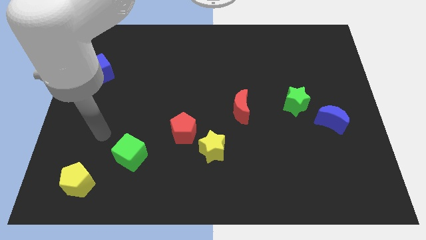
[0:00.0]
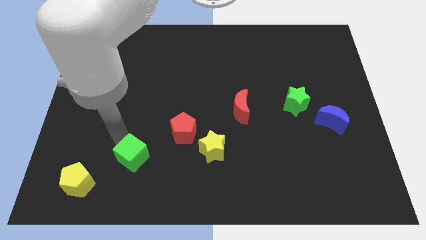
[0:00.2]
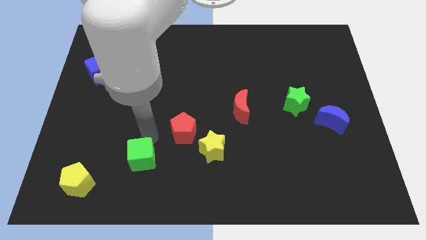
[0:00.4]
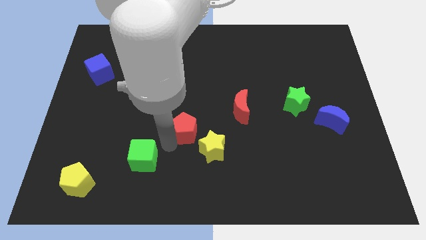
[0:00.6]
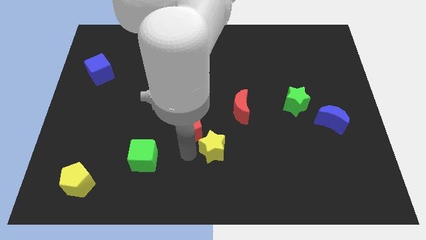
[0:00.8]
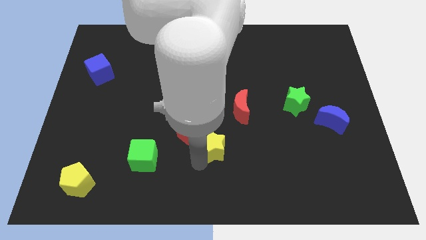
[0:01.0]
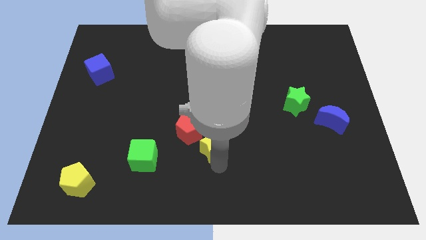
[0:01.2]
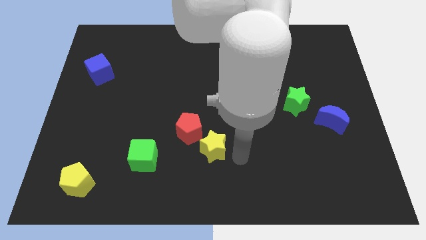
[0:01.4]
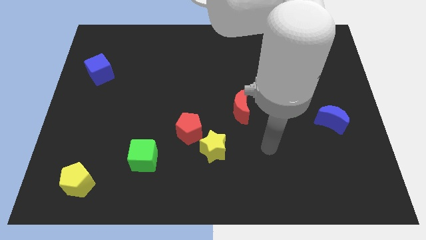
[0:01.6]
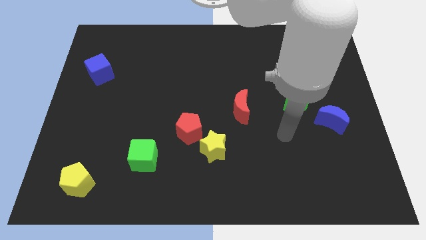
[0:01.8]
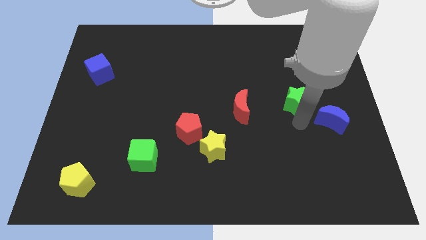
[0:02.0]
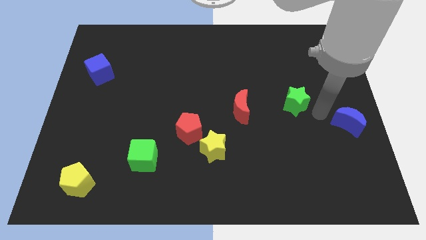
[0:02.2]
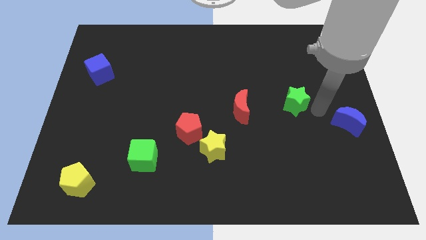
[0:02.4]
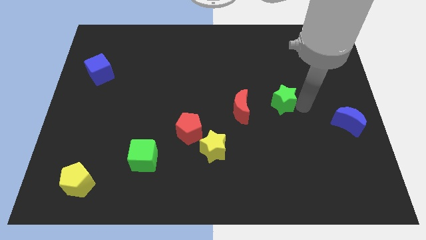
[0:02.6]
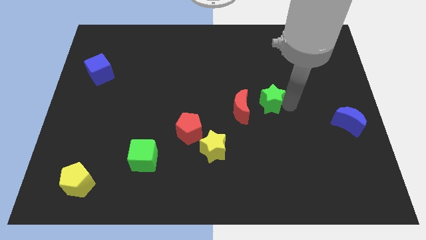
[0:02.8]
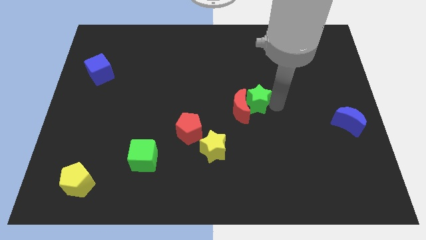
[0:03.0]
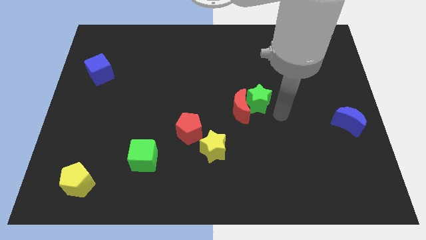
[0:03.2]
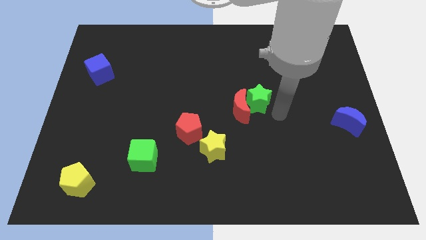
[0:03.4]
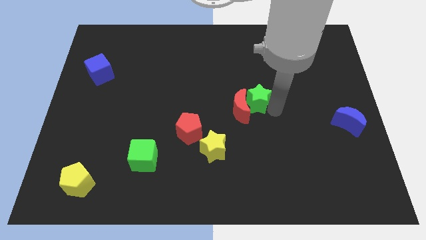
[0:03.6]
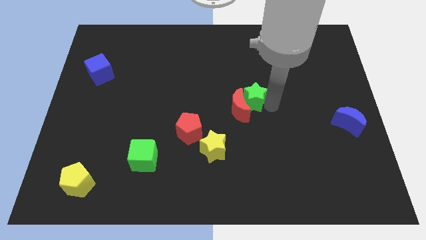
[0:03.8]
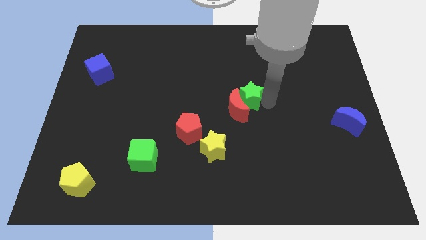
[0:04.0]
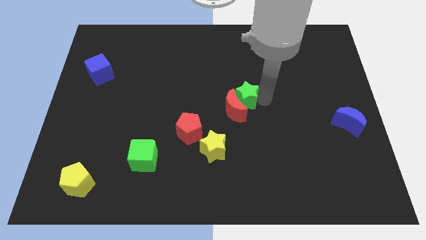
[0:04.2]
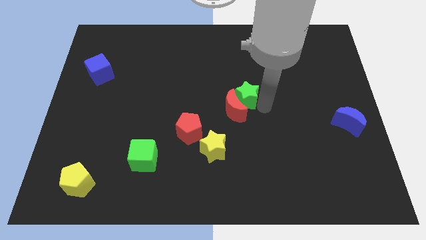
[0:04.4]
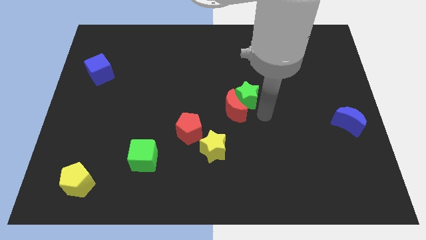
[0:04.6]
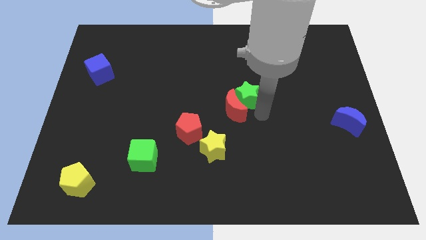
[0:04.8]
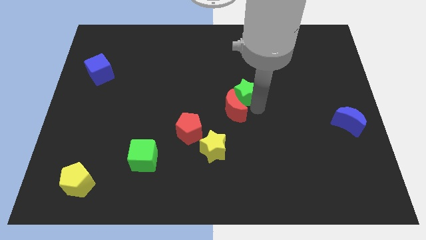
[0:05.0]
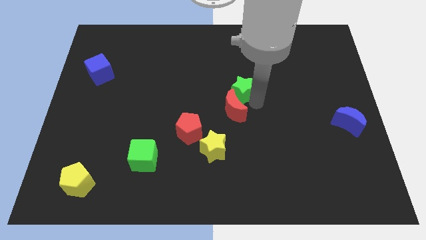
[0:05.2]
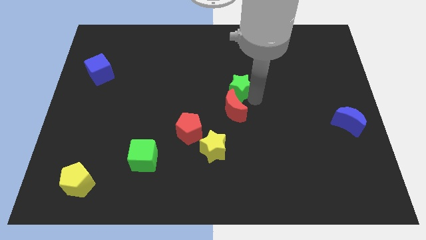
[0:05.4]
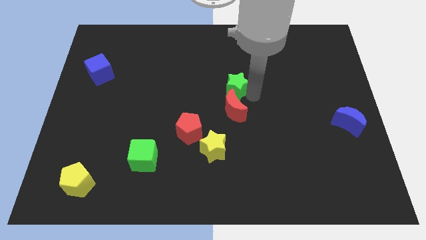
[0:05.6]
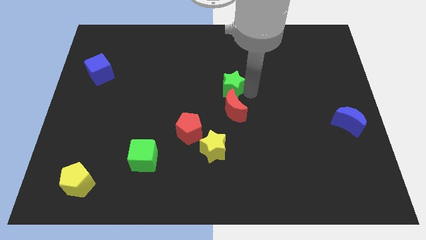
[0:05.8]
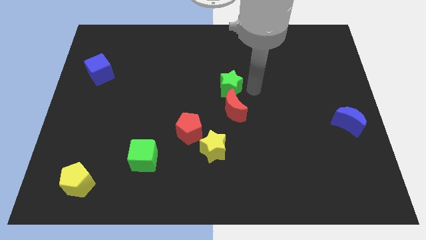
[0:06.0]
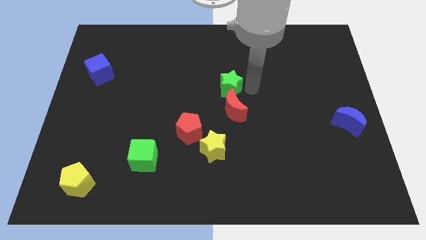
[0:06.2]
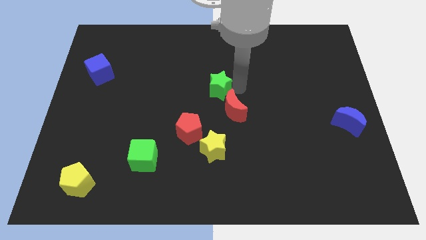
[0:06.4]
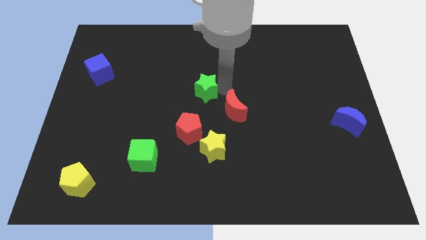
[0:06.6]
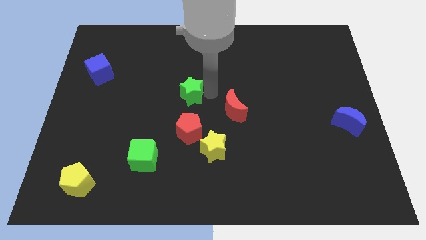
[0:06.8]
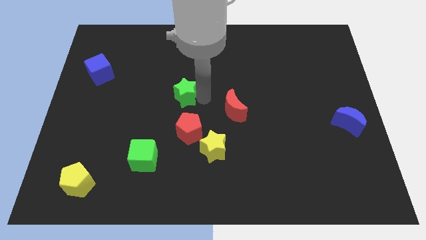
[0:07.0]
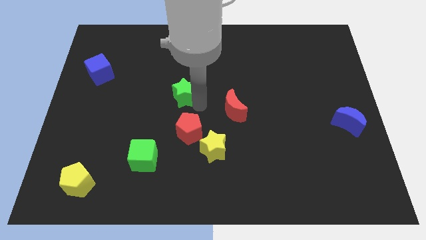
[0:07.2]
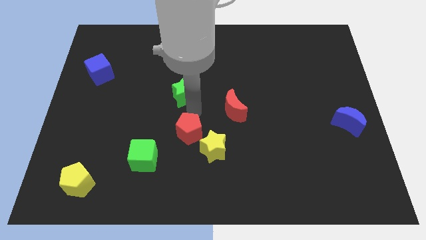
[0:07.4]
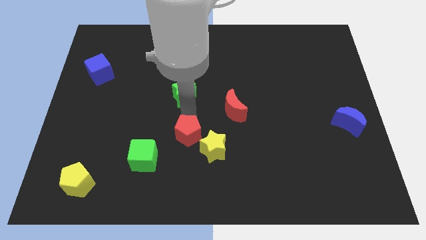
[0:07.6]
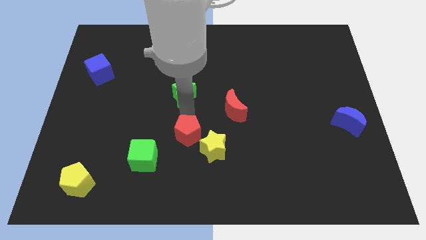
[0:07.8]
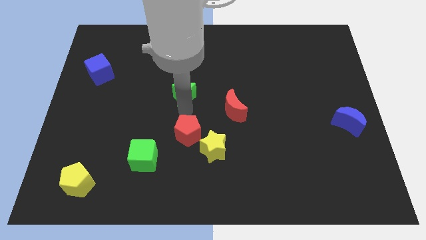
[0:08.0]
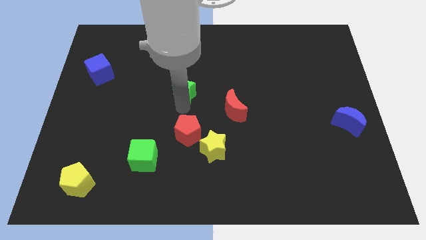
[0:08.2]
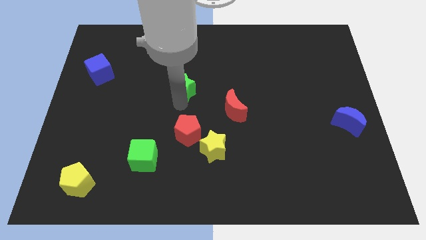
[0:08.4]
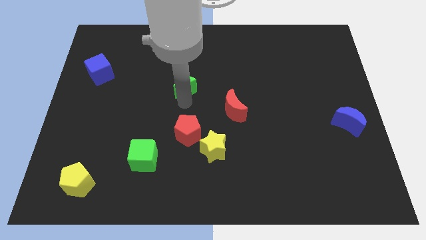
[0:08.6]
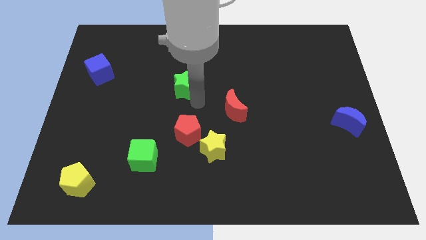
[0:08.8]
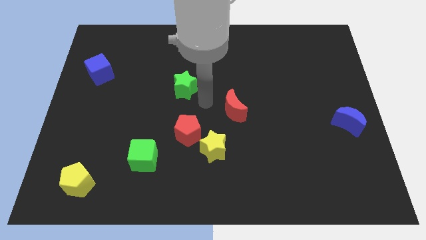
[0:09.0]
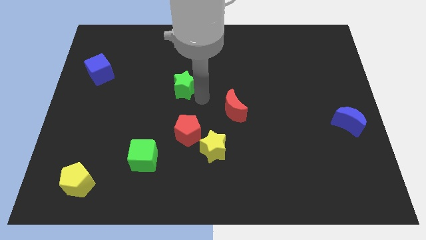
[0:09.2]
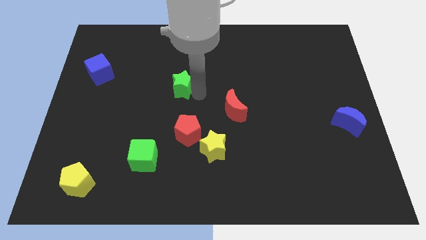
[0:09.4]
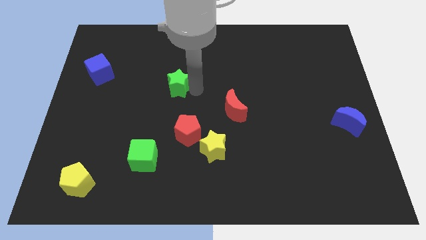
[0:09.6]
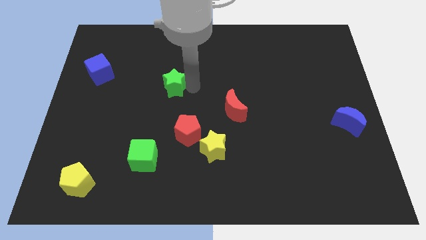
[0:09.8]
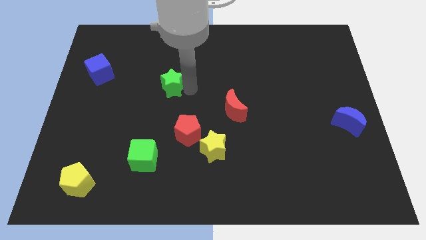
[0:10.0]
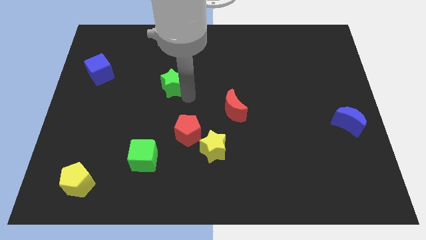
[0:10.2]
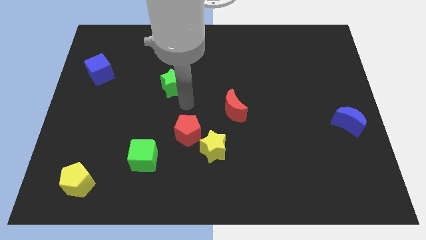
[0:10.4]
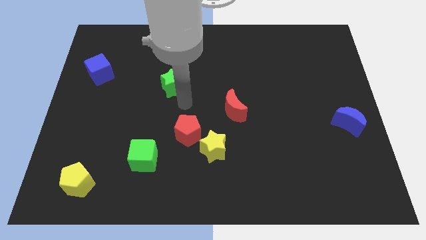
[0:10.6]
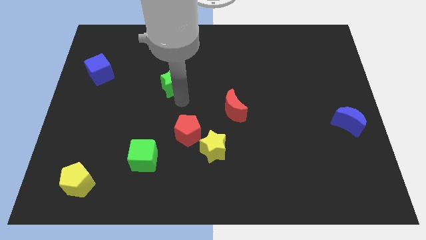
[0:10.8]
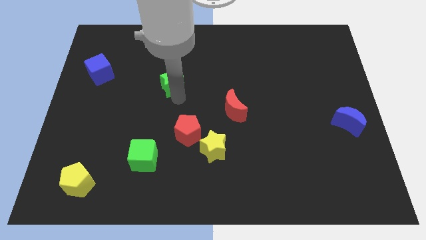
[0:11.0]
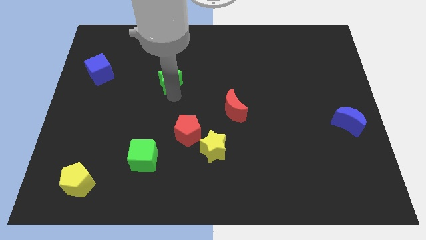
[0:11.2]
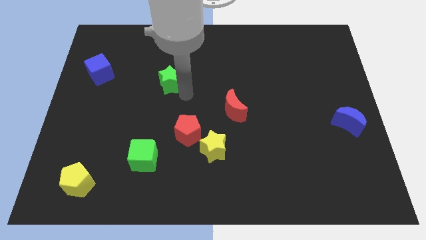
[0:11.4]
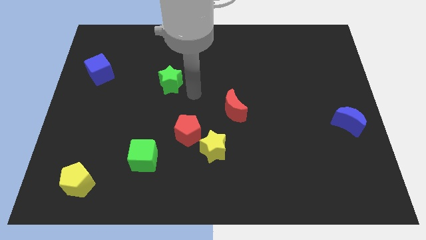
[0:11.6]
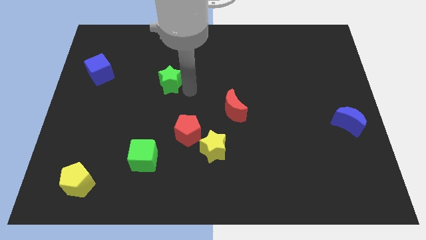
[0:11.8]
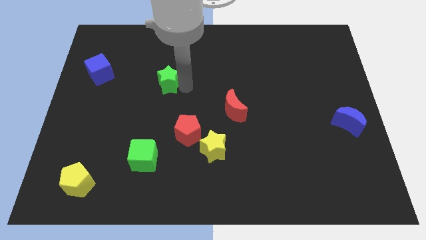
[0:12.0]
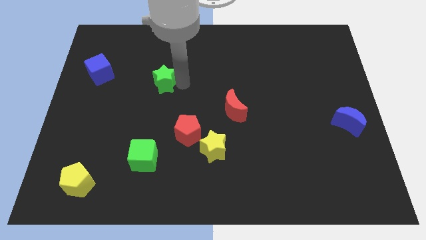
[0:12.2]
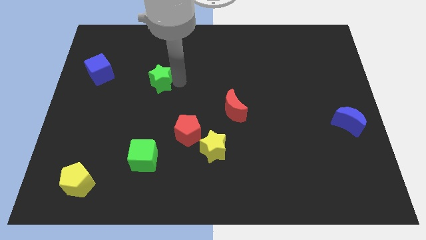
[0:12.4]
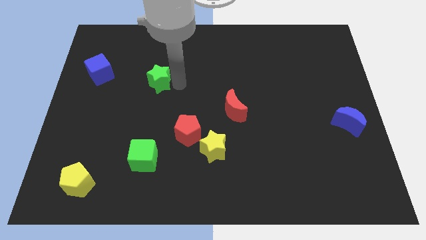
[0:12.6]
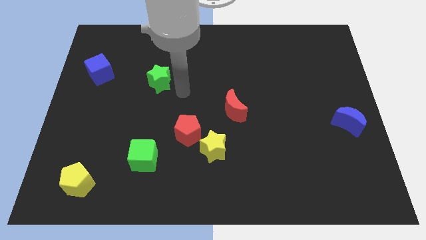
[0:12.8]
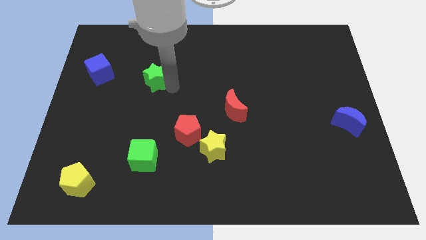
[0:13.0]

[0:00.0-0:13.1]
move the green star just right of the blue cube

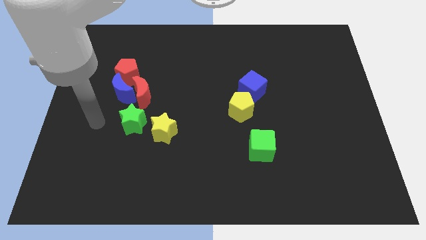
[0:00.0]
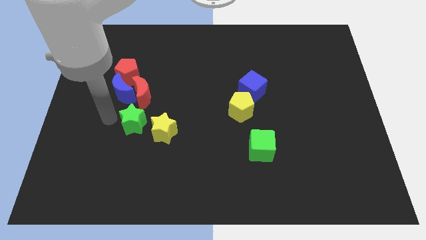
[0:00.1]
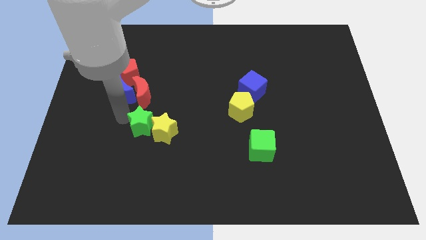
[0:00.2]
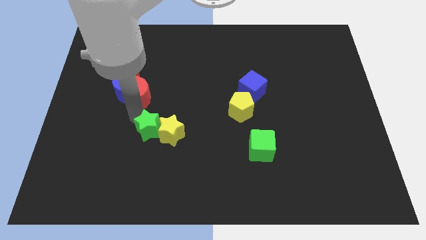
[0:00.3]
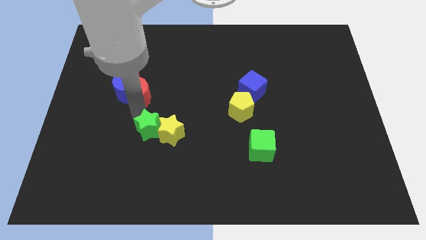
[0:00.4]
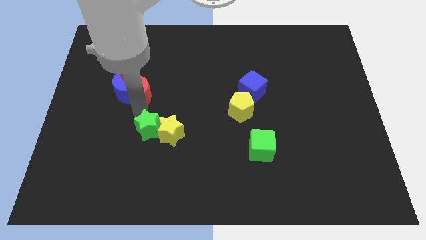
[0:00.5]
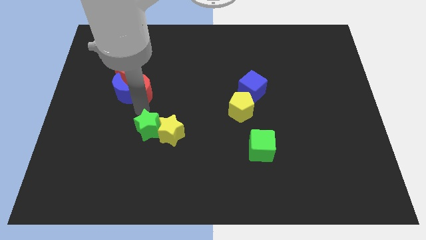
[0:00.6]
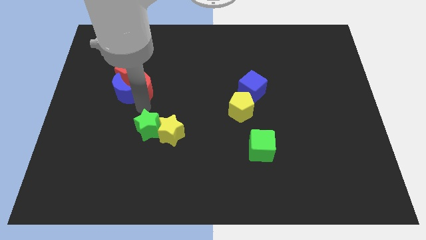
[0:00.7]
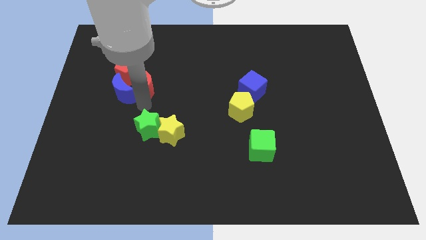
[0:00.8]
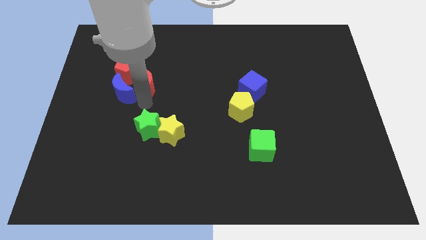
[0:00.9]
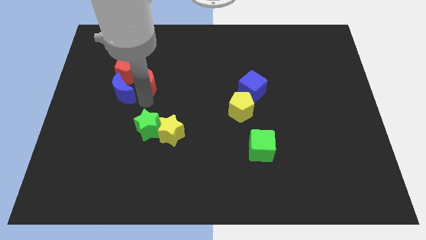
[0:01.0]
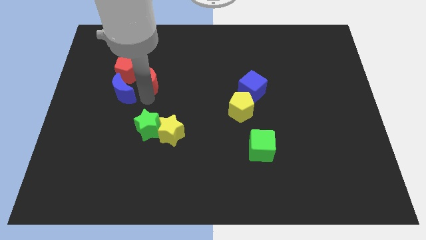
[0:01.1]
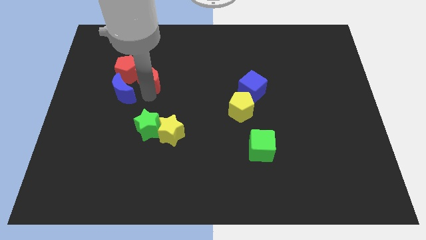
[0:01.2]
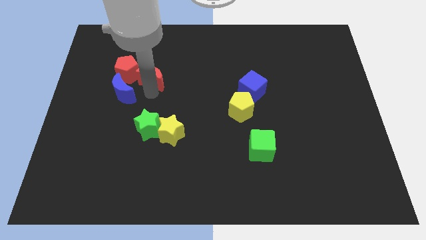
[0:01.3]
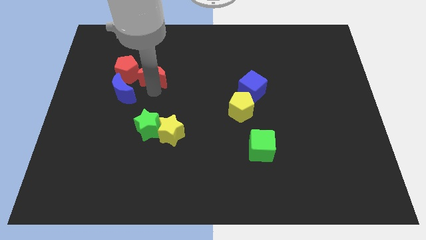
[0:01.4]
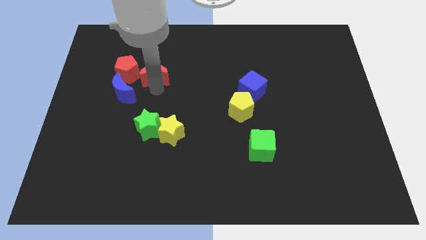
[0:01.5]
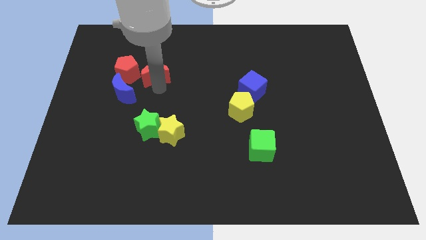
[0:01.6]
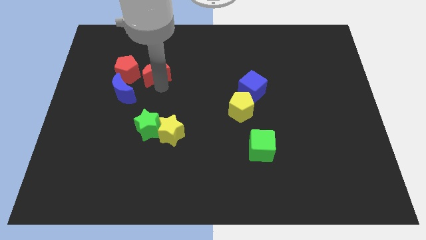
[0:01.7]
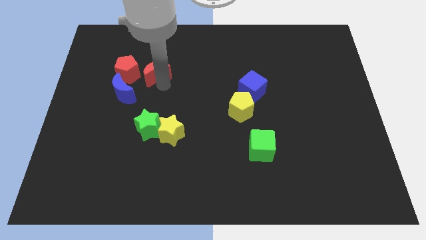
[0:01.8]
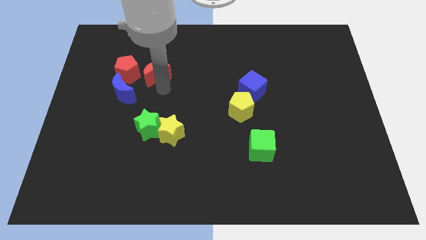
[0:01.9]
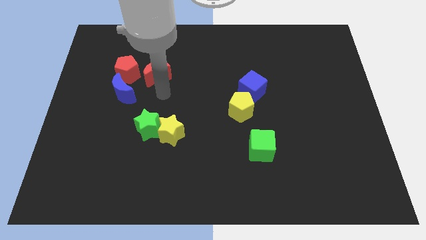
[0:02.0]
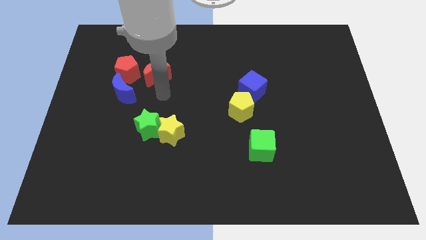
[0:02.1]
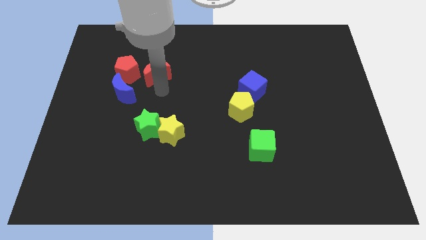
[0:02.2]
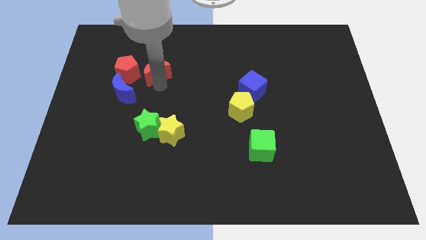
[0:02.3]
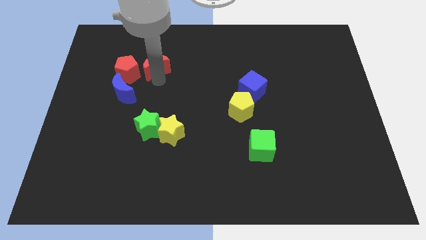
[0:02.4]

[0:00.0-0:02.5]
put the red moon to the top right of the red pentagon
